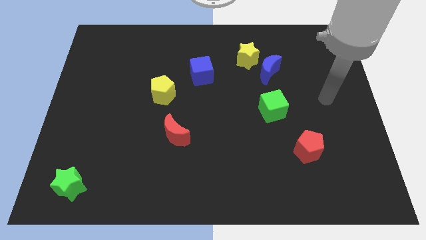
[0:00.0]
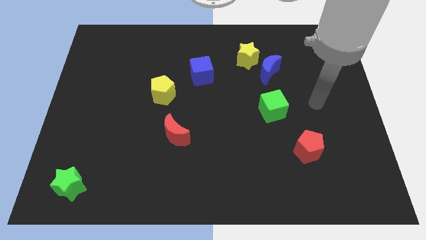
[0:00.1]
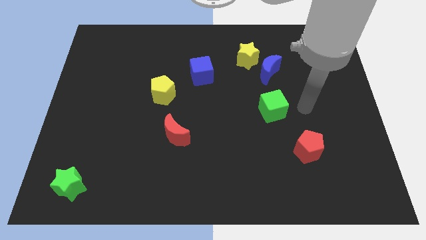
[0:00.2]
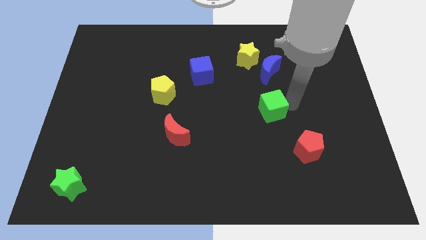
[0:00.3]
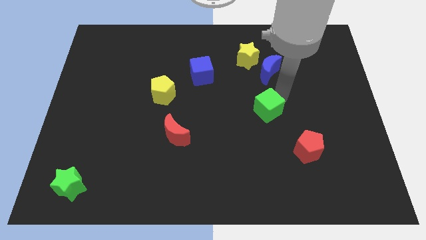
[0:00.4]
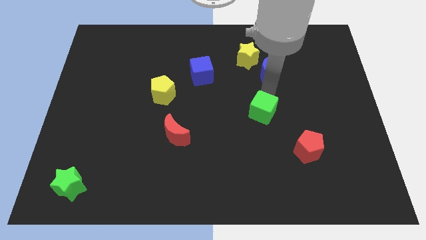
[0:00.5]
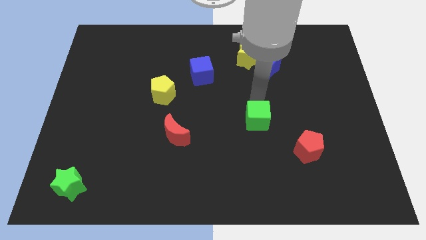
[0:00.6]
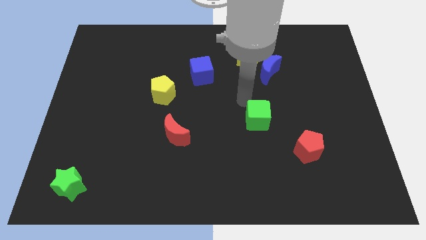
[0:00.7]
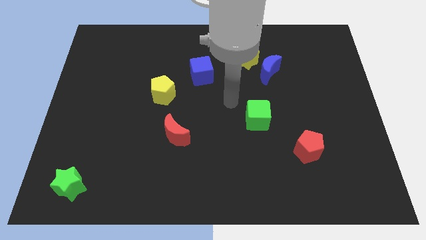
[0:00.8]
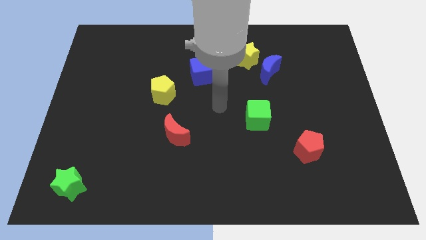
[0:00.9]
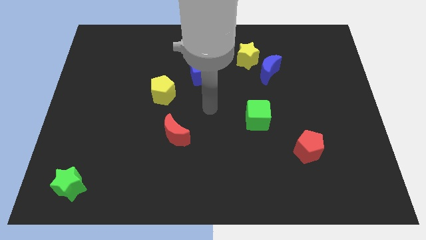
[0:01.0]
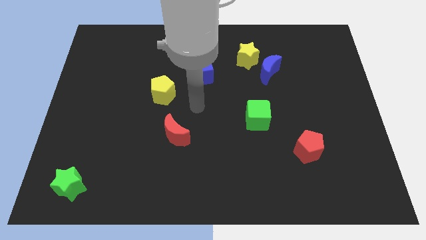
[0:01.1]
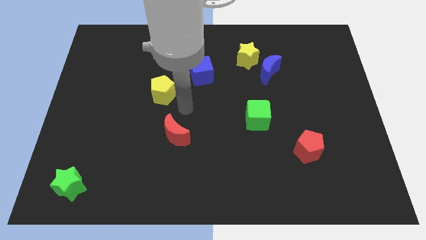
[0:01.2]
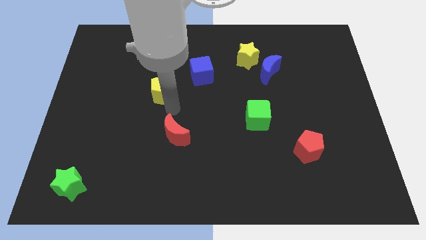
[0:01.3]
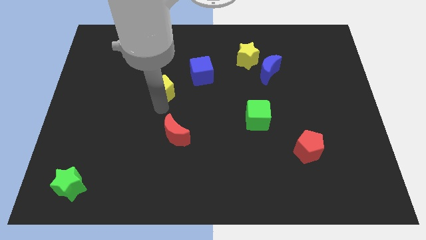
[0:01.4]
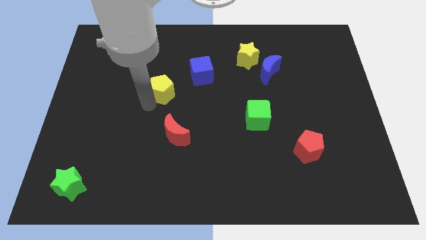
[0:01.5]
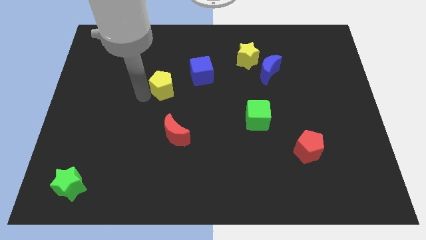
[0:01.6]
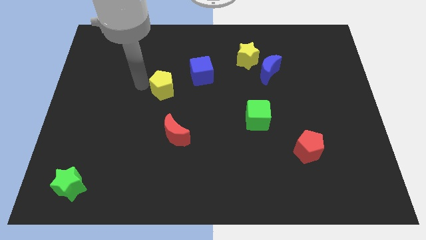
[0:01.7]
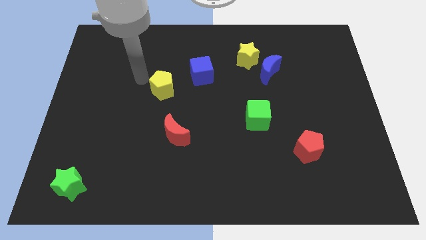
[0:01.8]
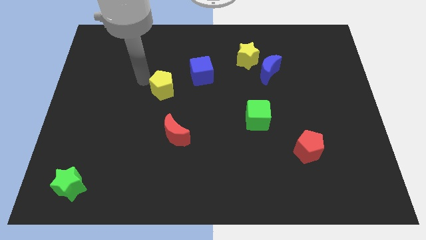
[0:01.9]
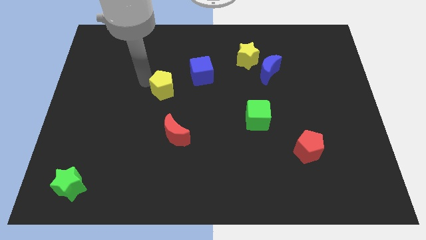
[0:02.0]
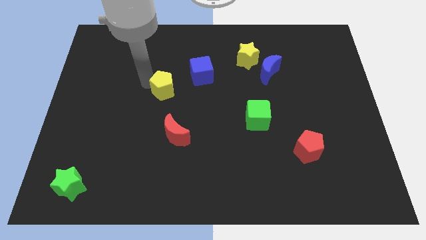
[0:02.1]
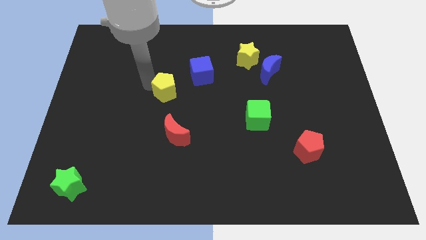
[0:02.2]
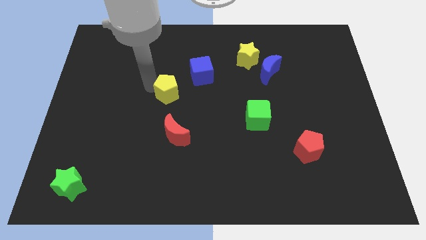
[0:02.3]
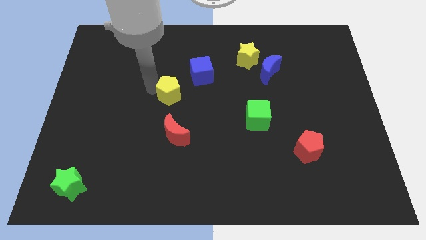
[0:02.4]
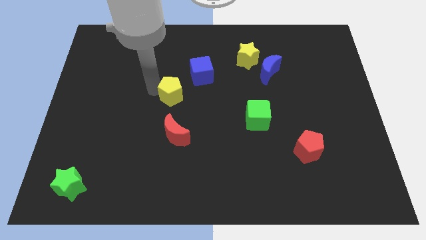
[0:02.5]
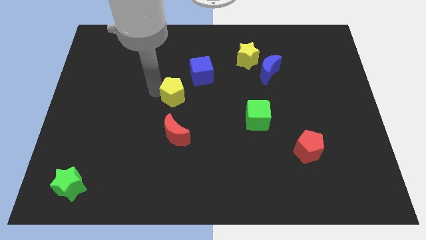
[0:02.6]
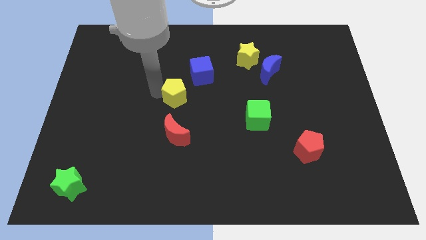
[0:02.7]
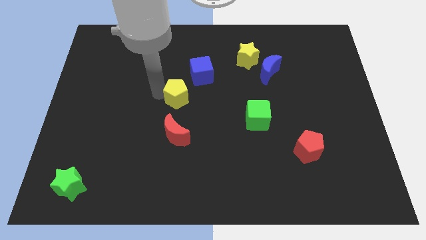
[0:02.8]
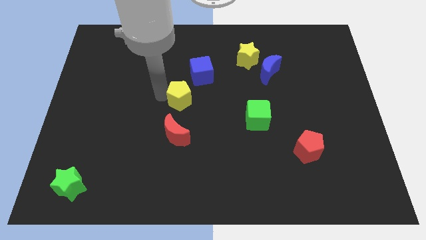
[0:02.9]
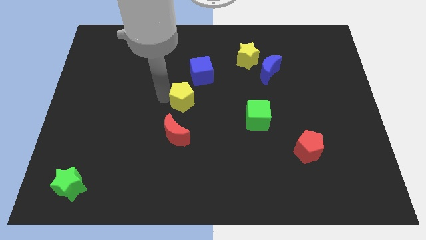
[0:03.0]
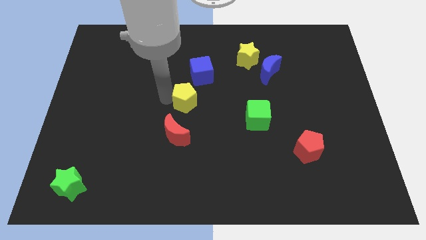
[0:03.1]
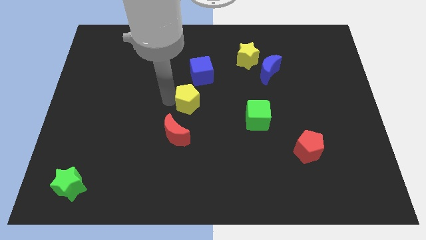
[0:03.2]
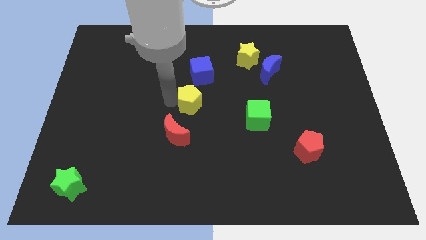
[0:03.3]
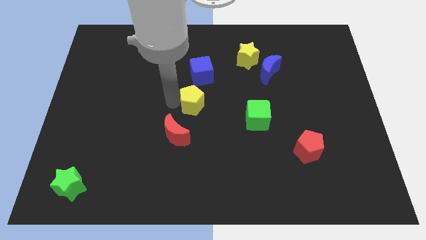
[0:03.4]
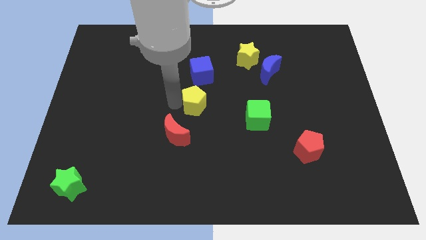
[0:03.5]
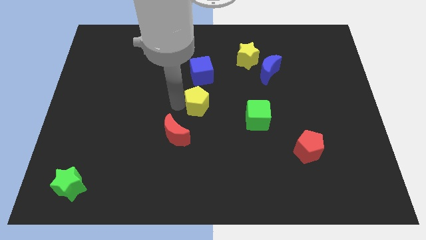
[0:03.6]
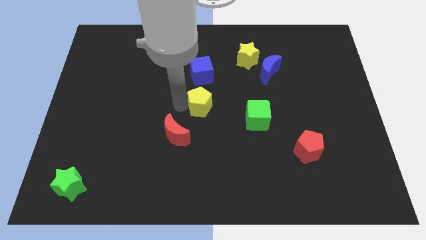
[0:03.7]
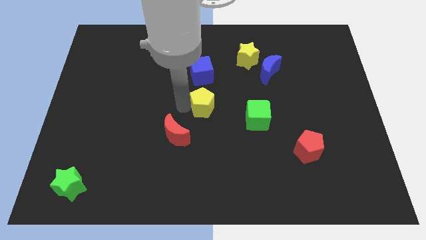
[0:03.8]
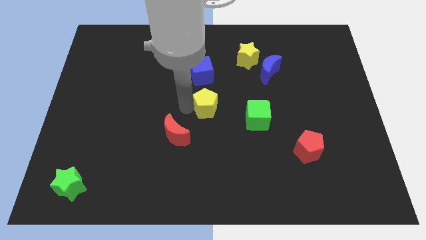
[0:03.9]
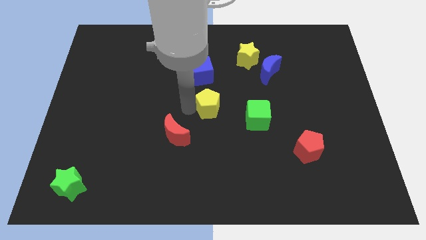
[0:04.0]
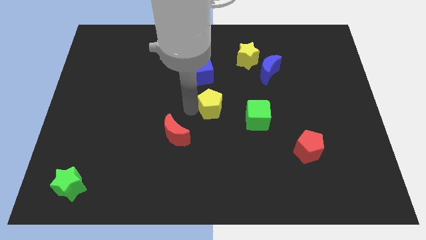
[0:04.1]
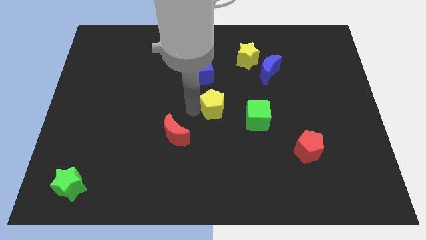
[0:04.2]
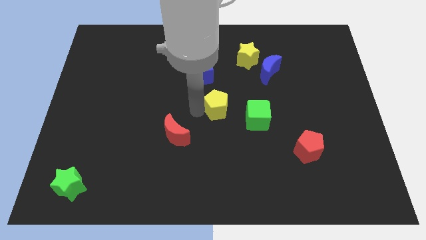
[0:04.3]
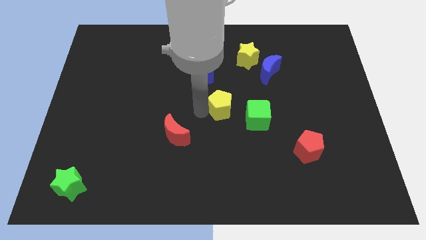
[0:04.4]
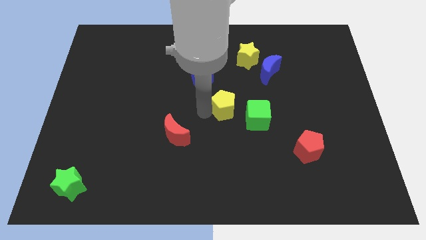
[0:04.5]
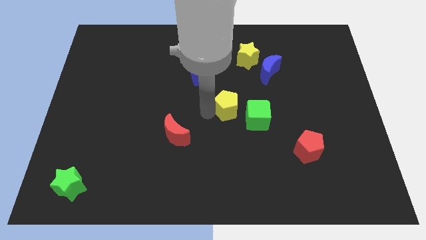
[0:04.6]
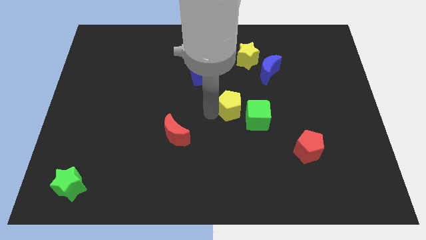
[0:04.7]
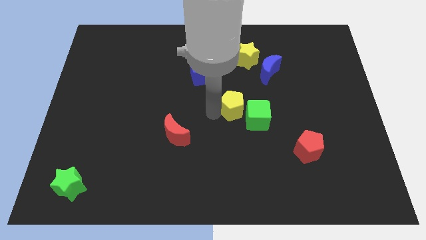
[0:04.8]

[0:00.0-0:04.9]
put the yellow pentagon next to the green cube

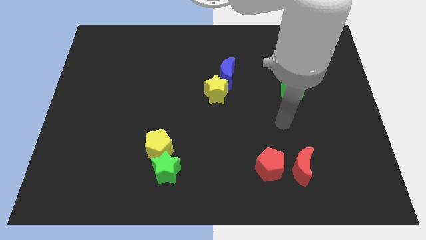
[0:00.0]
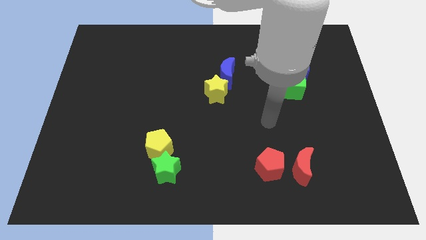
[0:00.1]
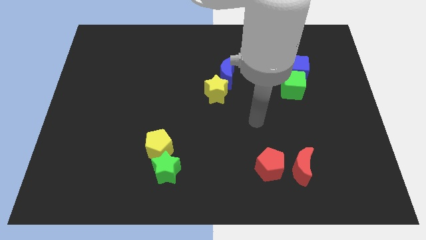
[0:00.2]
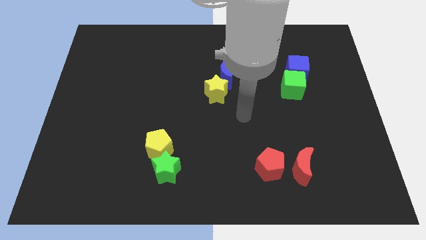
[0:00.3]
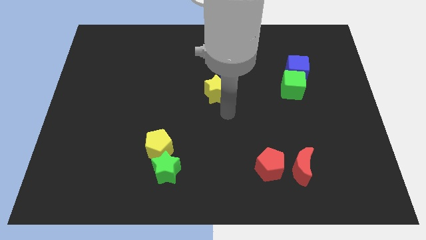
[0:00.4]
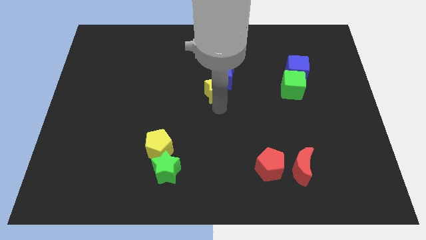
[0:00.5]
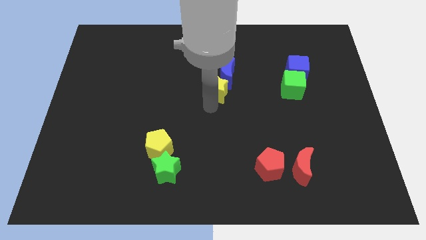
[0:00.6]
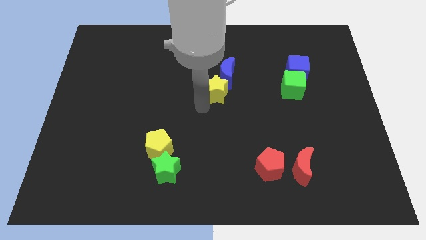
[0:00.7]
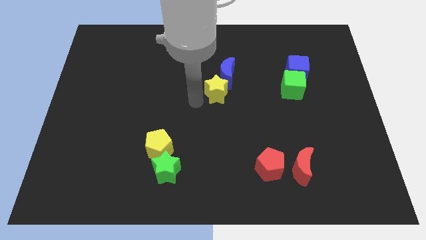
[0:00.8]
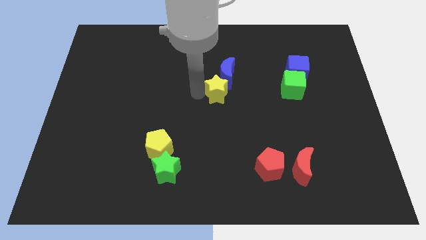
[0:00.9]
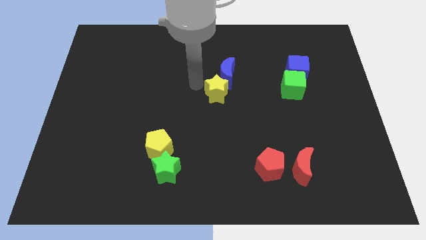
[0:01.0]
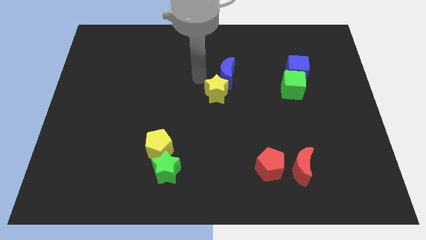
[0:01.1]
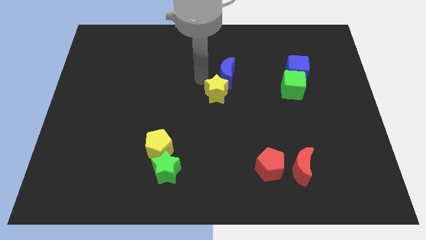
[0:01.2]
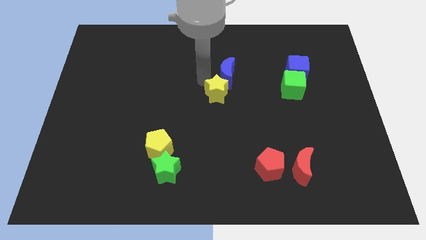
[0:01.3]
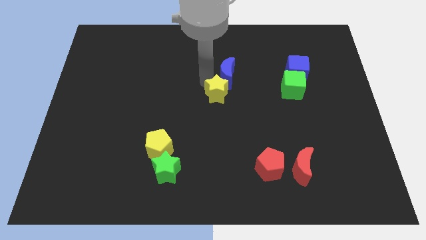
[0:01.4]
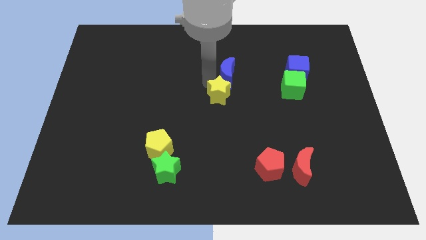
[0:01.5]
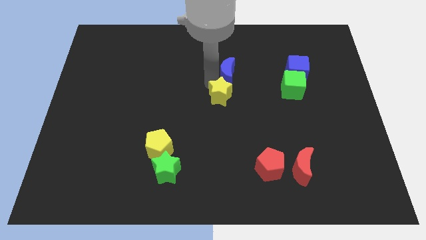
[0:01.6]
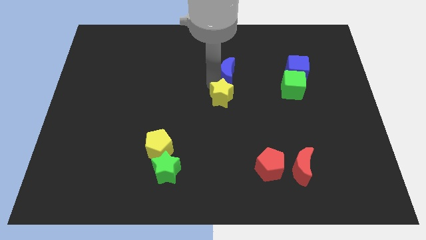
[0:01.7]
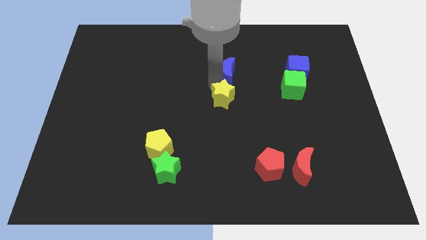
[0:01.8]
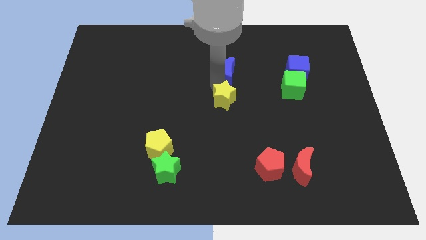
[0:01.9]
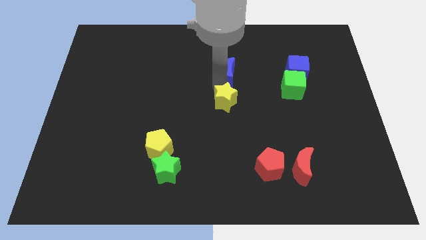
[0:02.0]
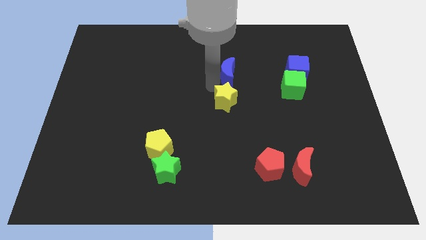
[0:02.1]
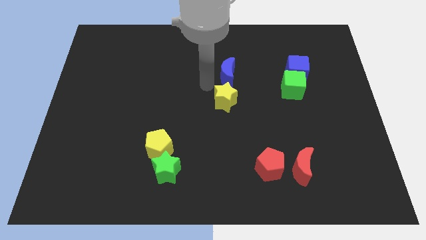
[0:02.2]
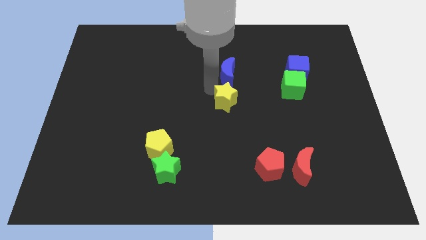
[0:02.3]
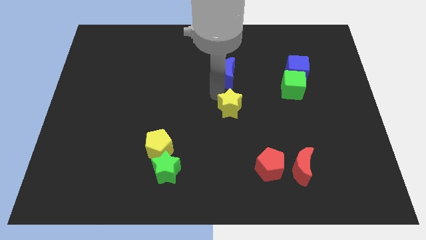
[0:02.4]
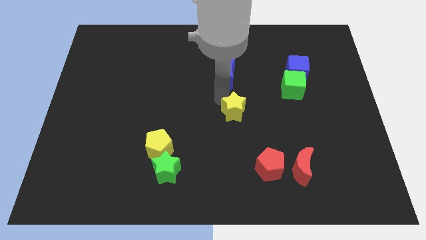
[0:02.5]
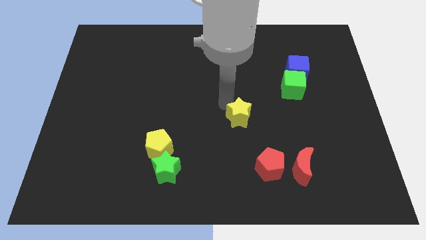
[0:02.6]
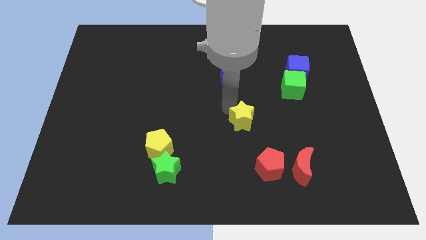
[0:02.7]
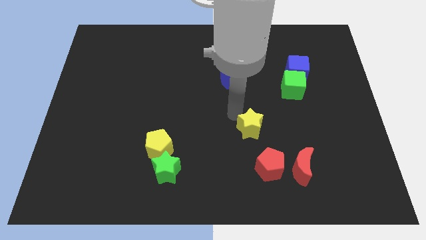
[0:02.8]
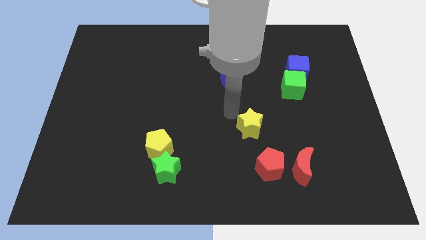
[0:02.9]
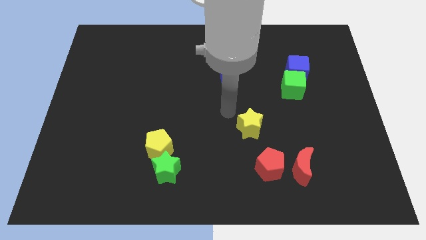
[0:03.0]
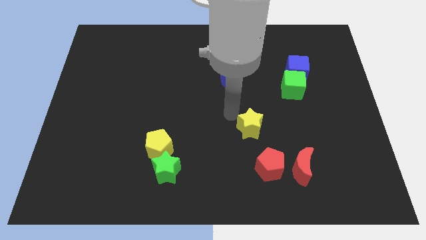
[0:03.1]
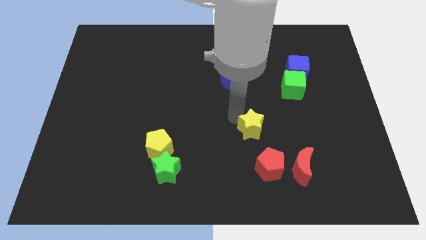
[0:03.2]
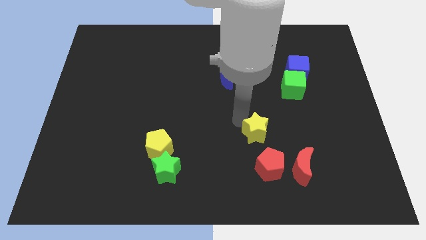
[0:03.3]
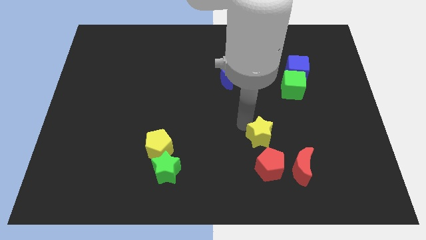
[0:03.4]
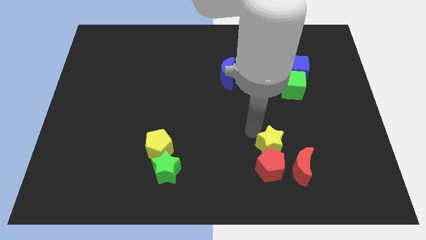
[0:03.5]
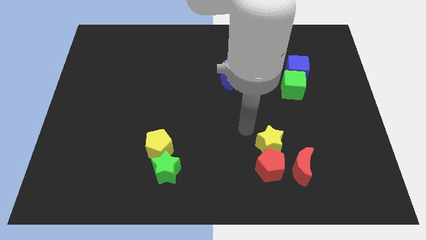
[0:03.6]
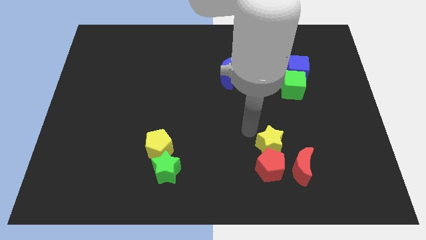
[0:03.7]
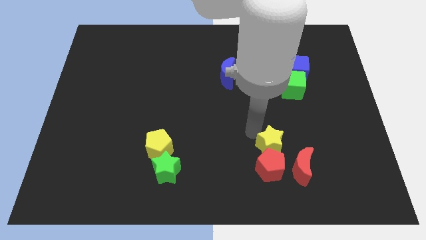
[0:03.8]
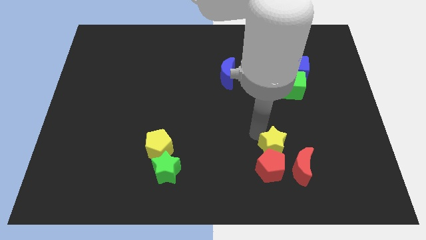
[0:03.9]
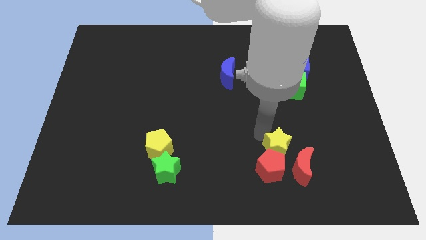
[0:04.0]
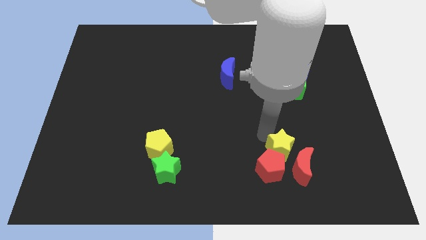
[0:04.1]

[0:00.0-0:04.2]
push the yellow star to the red moon
